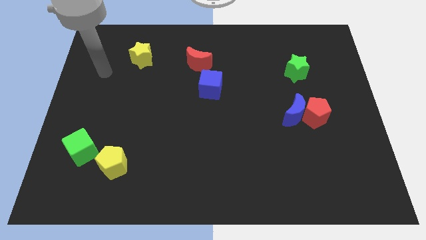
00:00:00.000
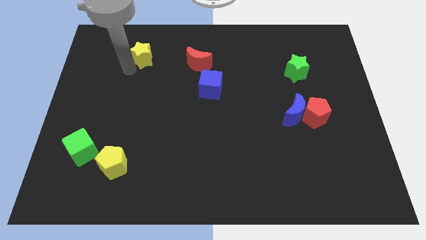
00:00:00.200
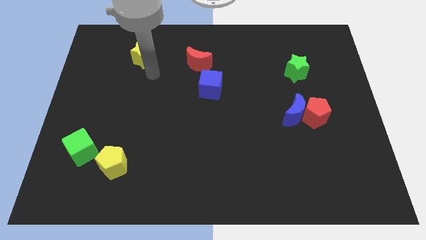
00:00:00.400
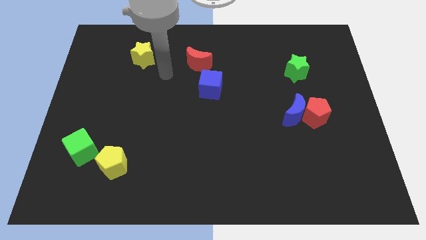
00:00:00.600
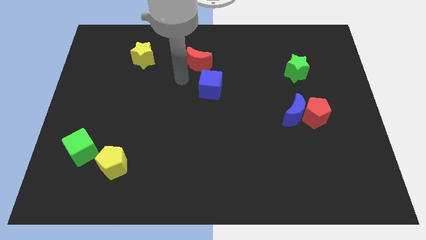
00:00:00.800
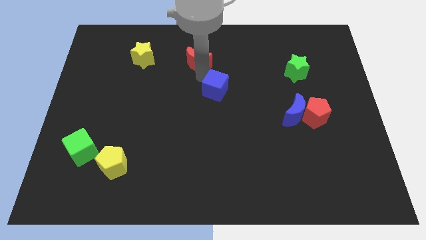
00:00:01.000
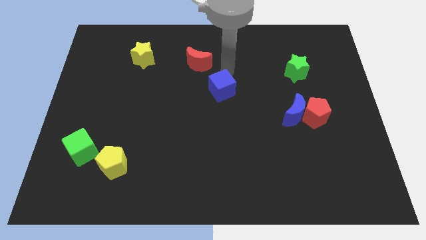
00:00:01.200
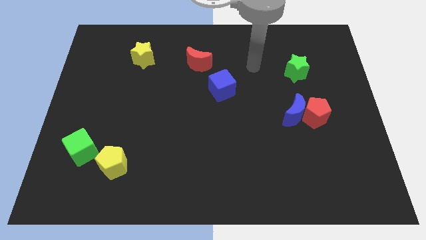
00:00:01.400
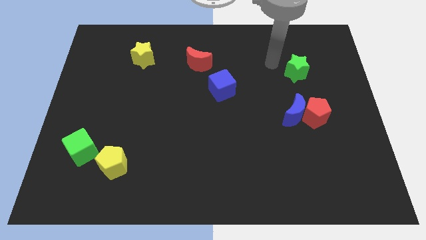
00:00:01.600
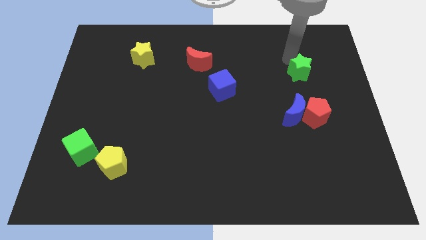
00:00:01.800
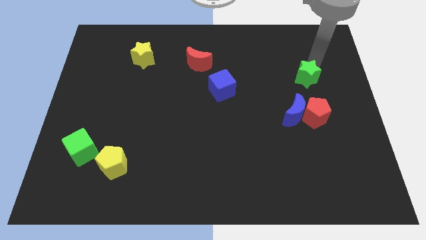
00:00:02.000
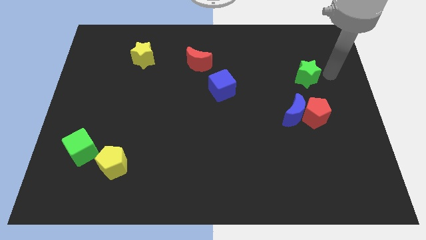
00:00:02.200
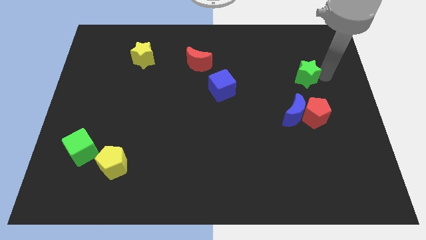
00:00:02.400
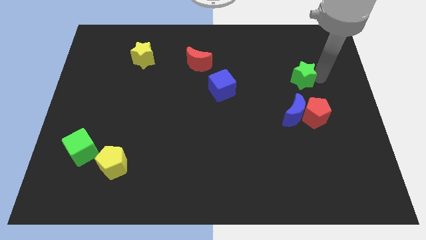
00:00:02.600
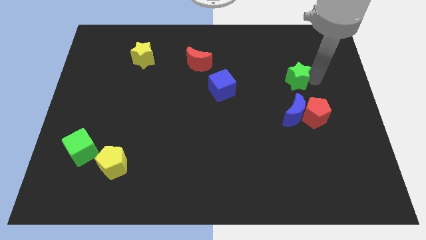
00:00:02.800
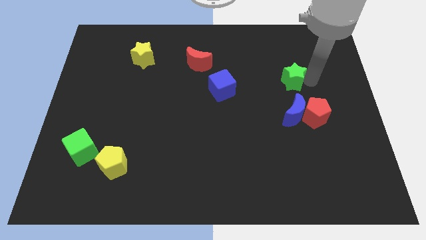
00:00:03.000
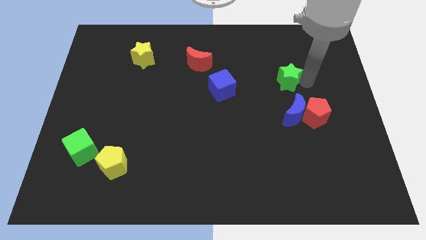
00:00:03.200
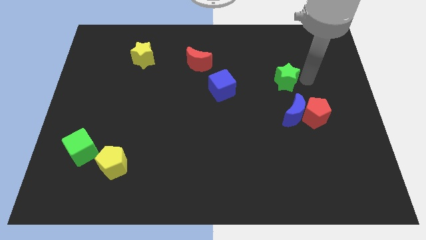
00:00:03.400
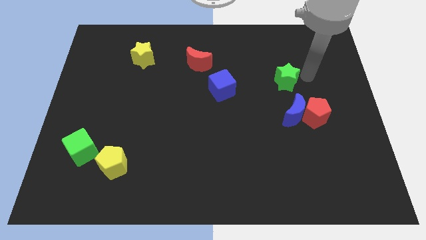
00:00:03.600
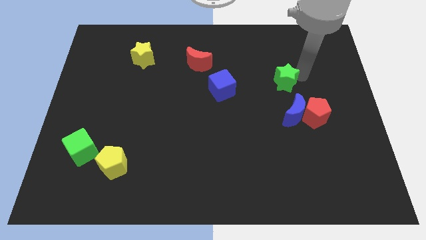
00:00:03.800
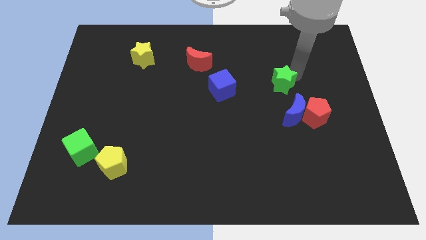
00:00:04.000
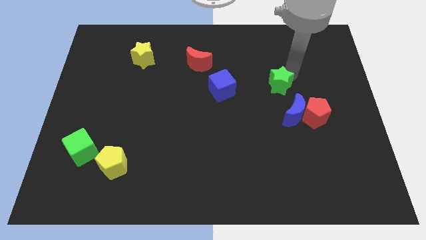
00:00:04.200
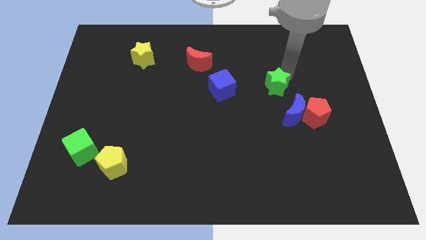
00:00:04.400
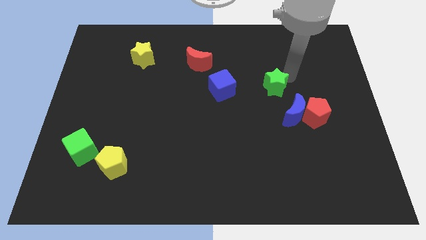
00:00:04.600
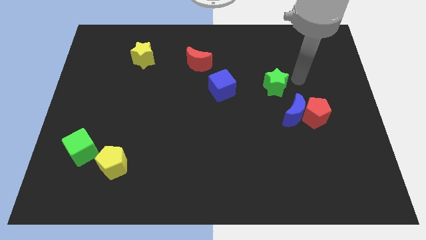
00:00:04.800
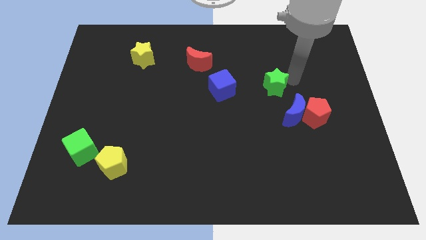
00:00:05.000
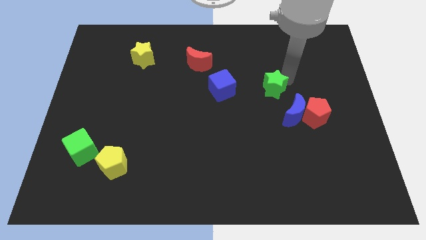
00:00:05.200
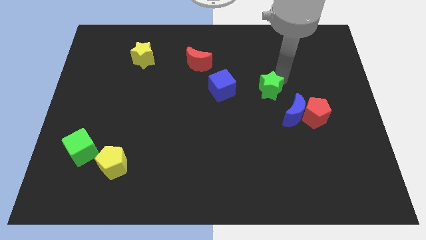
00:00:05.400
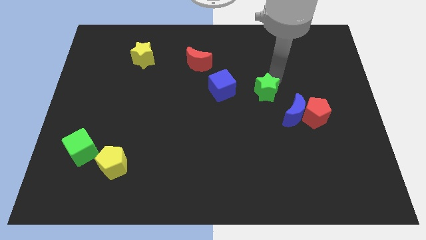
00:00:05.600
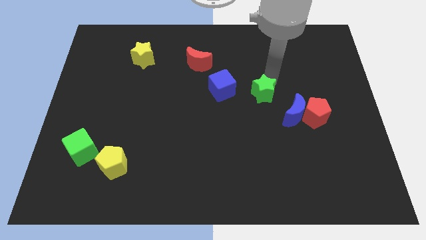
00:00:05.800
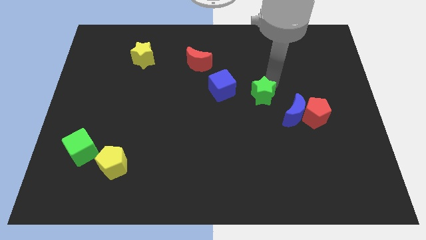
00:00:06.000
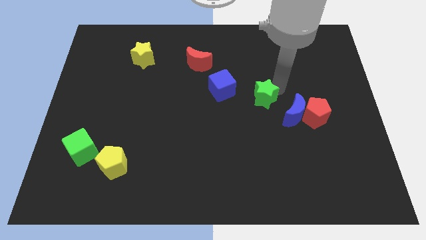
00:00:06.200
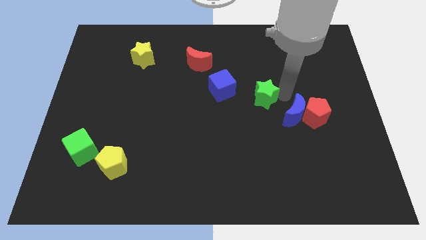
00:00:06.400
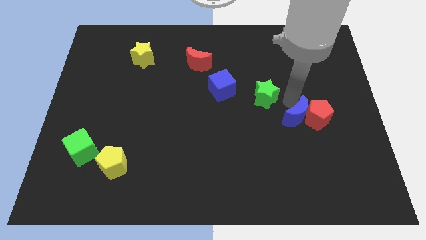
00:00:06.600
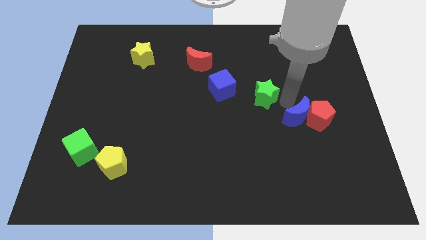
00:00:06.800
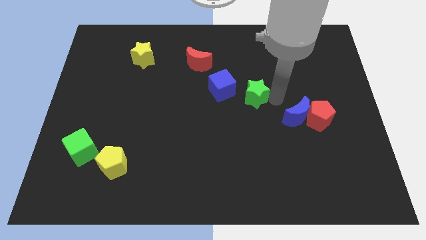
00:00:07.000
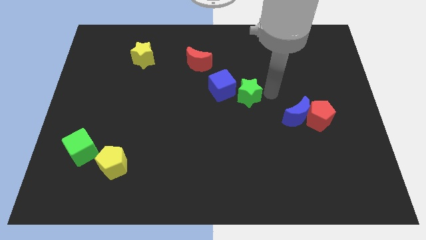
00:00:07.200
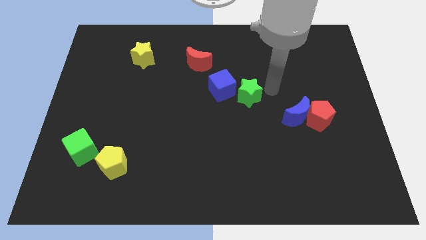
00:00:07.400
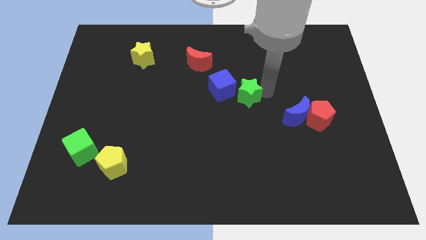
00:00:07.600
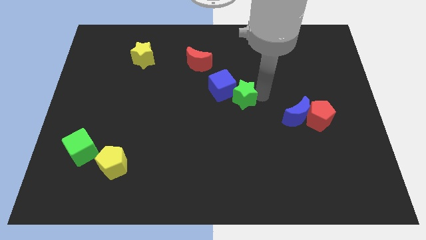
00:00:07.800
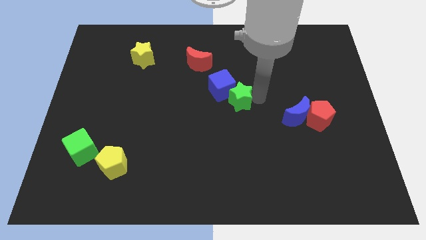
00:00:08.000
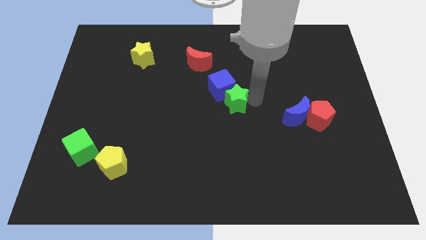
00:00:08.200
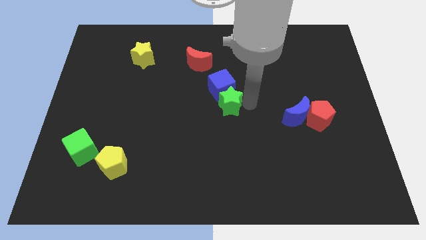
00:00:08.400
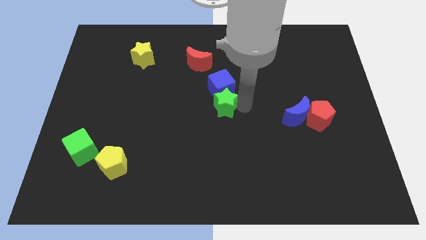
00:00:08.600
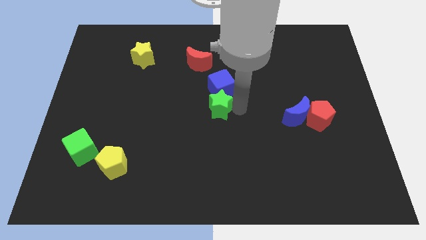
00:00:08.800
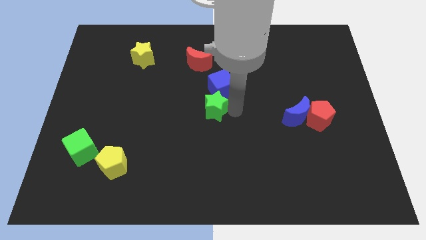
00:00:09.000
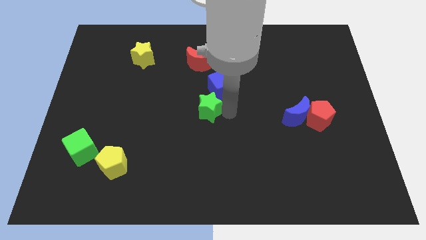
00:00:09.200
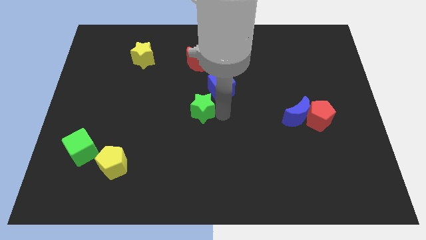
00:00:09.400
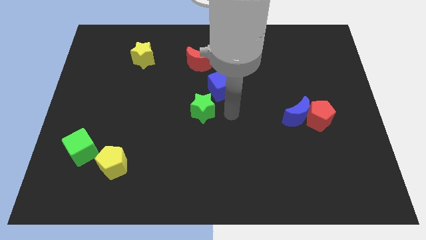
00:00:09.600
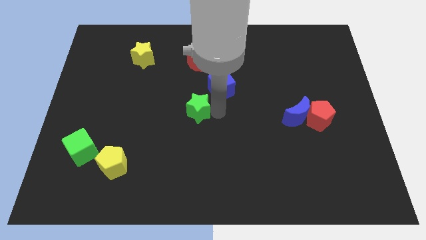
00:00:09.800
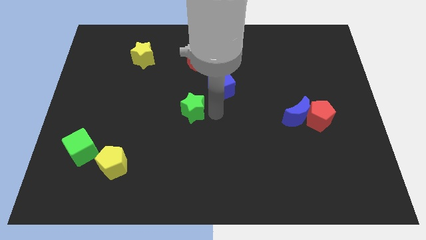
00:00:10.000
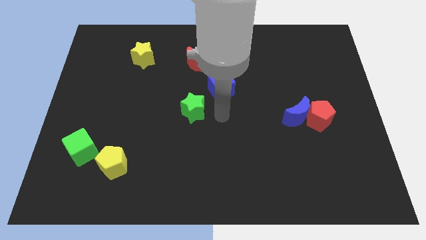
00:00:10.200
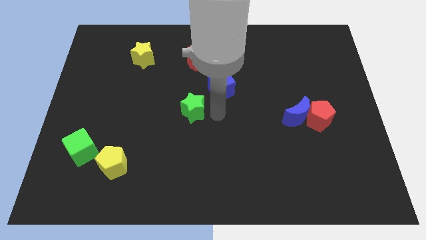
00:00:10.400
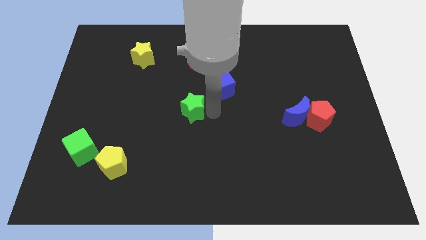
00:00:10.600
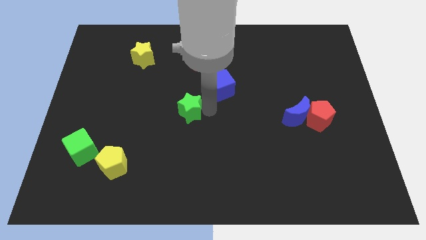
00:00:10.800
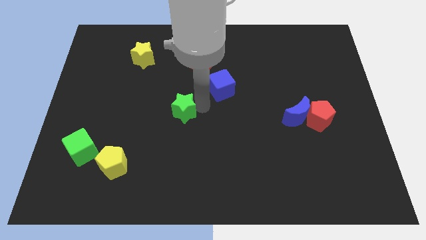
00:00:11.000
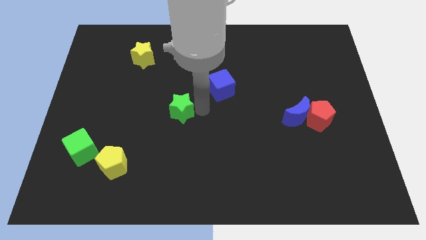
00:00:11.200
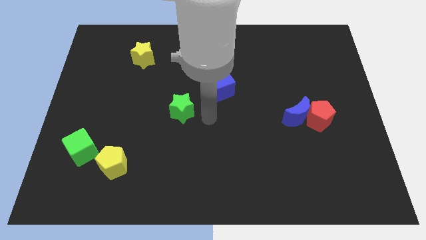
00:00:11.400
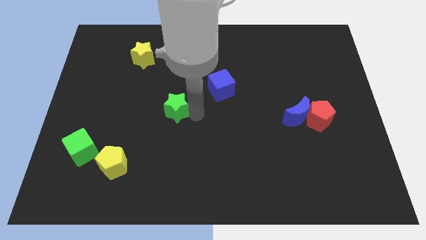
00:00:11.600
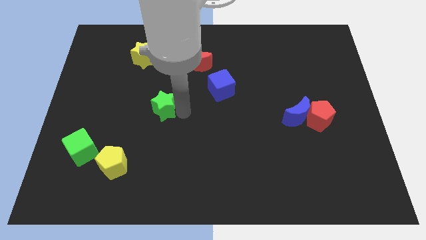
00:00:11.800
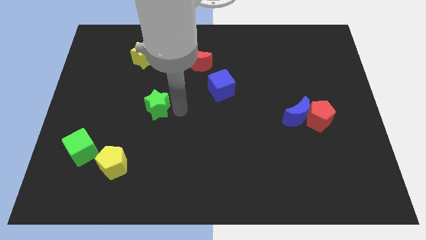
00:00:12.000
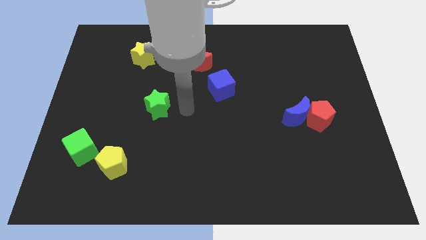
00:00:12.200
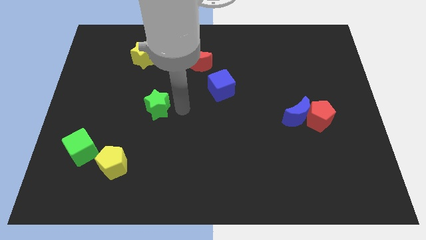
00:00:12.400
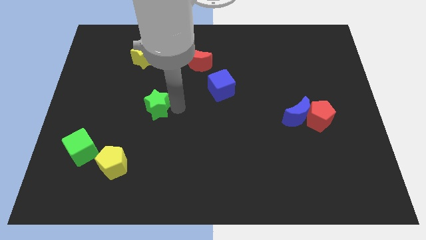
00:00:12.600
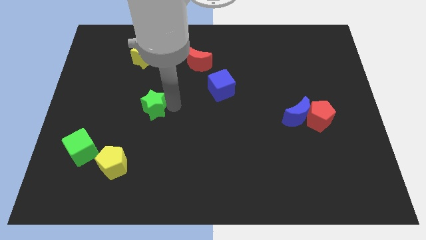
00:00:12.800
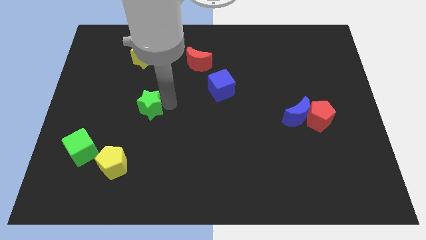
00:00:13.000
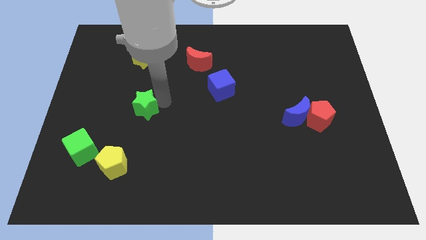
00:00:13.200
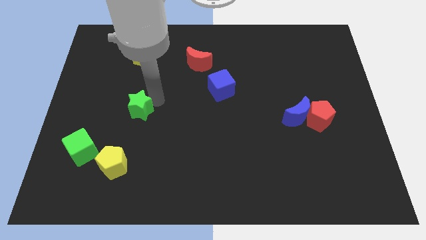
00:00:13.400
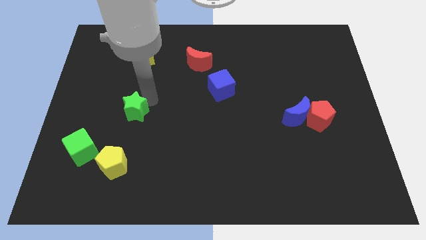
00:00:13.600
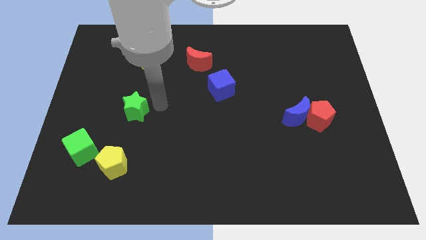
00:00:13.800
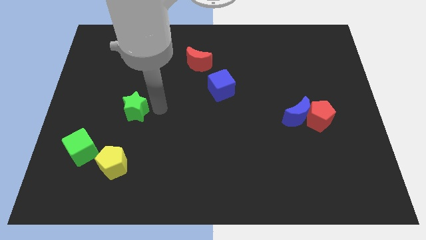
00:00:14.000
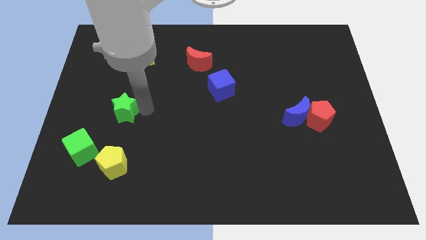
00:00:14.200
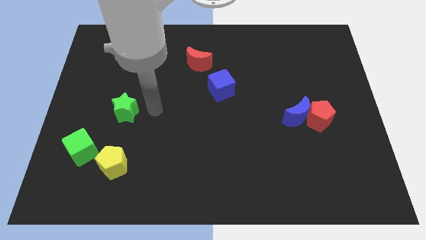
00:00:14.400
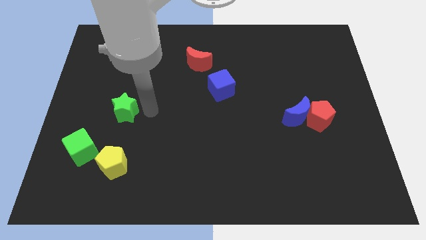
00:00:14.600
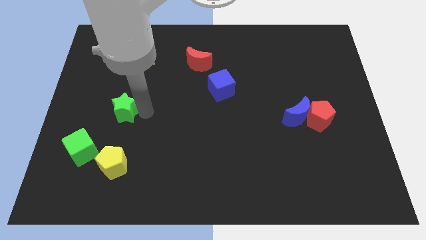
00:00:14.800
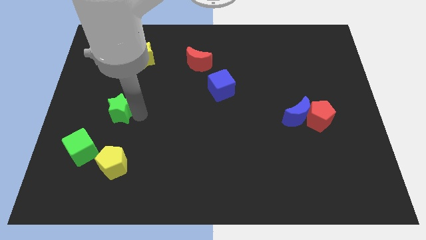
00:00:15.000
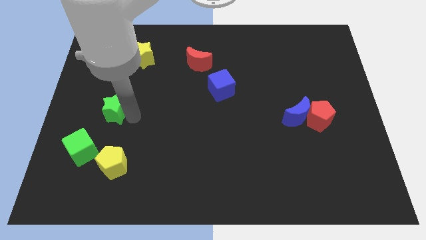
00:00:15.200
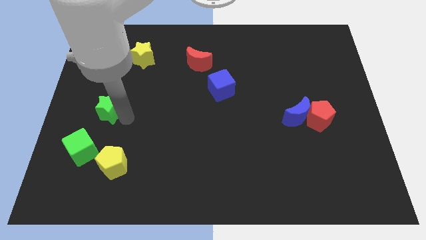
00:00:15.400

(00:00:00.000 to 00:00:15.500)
slide the green star to the top side of the green cube
